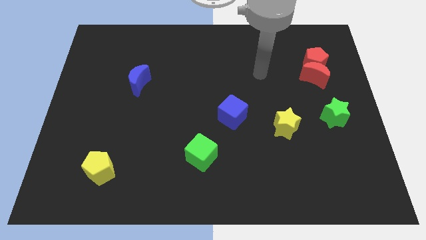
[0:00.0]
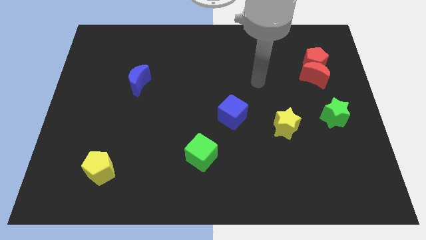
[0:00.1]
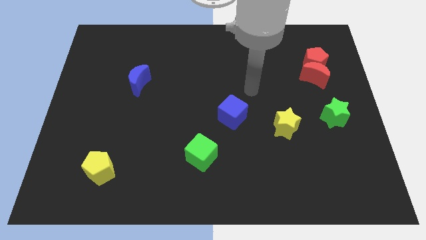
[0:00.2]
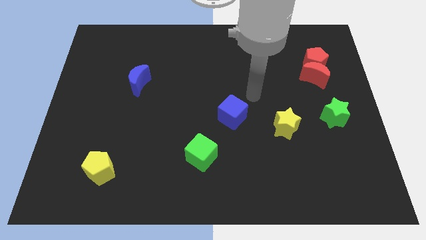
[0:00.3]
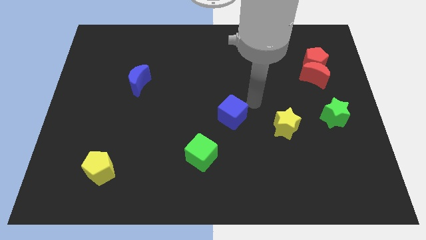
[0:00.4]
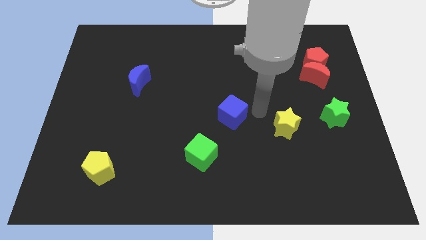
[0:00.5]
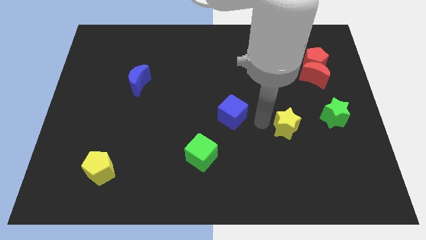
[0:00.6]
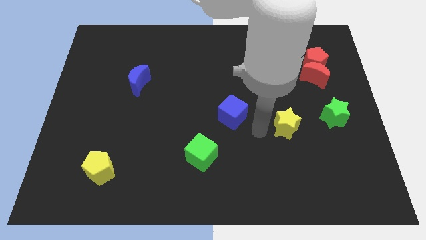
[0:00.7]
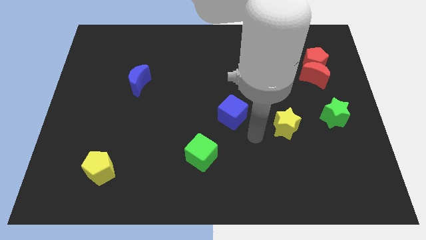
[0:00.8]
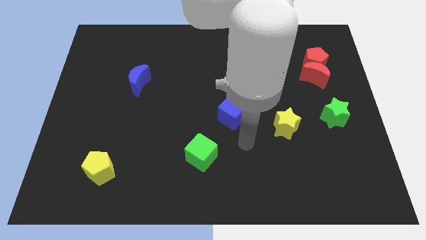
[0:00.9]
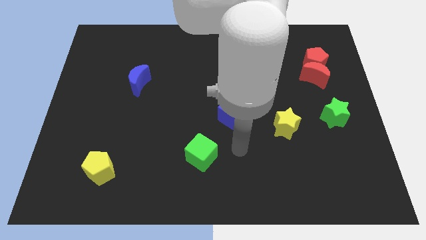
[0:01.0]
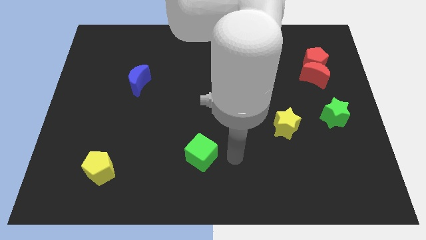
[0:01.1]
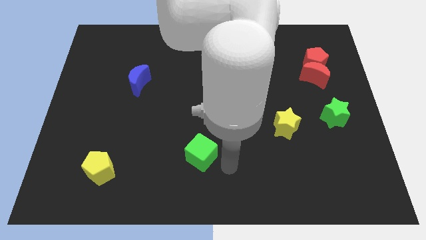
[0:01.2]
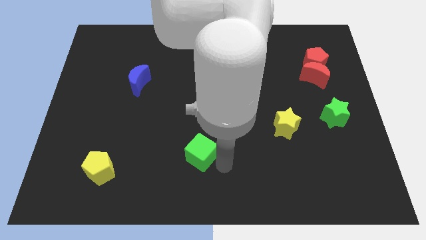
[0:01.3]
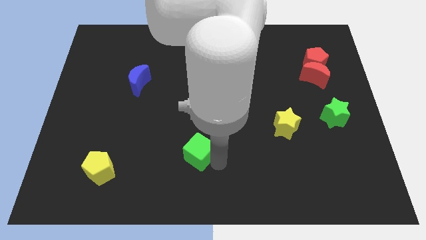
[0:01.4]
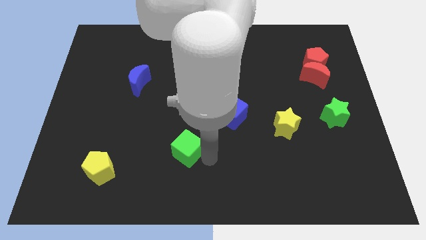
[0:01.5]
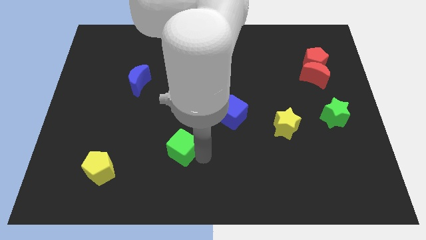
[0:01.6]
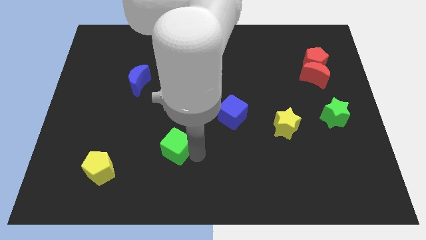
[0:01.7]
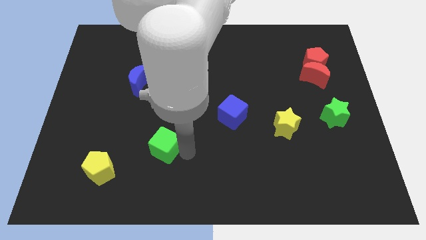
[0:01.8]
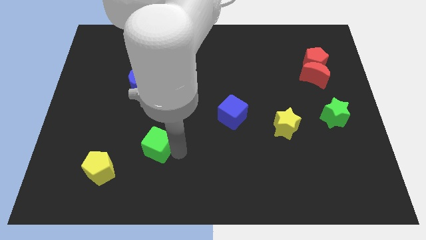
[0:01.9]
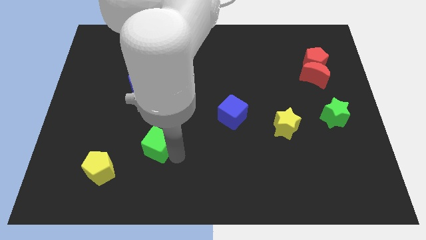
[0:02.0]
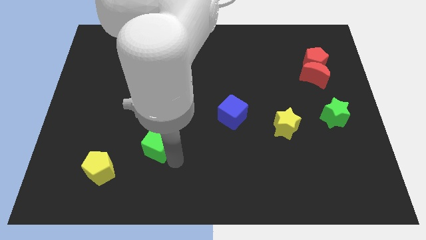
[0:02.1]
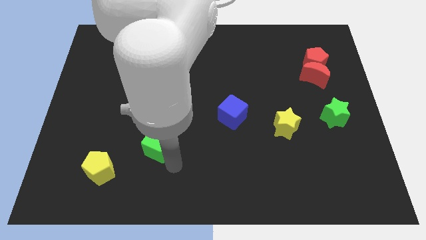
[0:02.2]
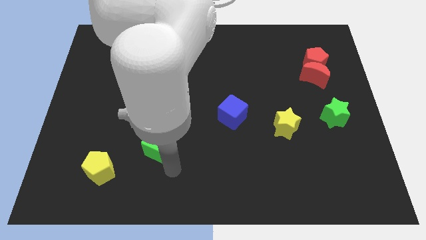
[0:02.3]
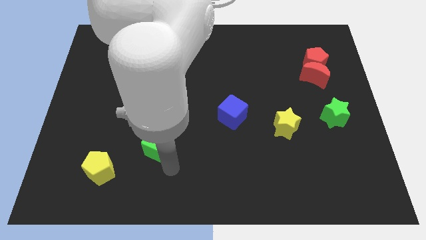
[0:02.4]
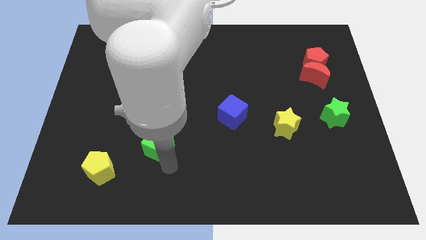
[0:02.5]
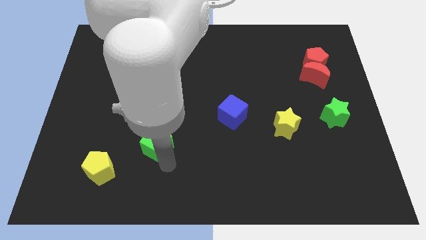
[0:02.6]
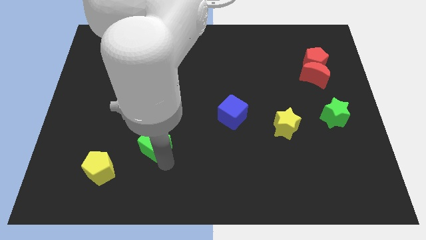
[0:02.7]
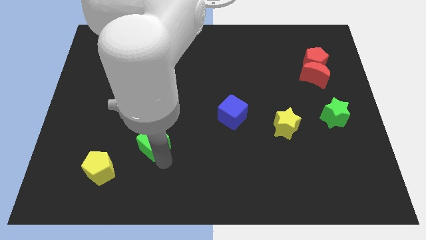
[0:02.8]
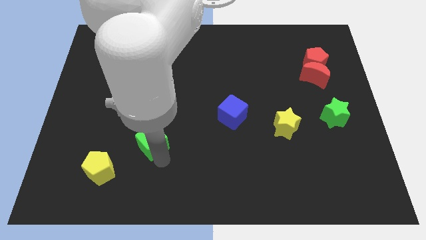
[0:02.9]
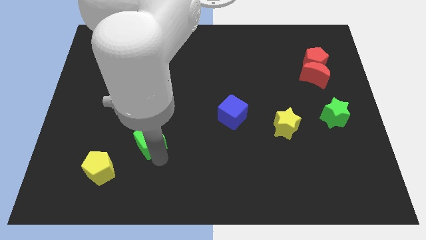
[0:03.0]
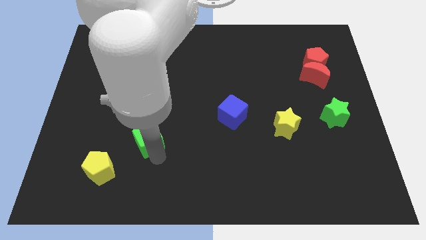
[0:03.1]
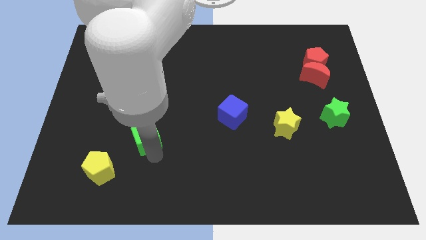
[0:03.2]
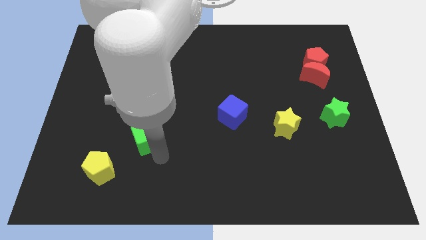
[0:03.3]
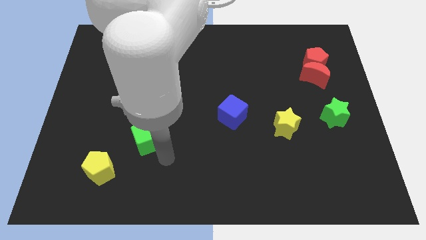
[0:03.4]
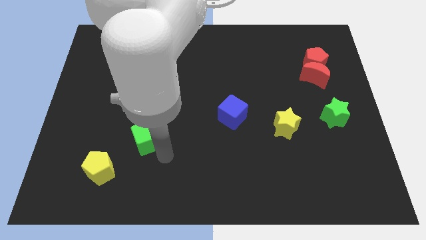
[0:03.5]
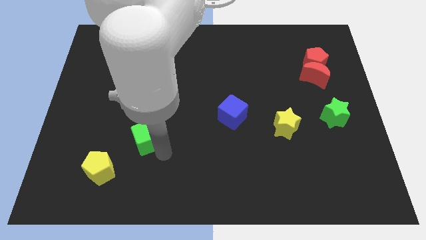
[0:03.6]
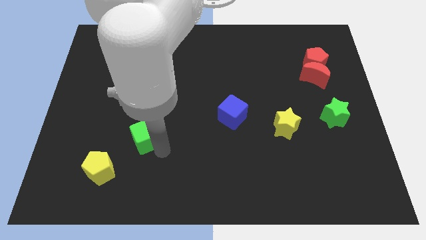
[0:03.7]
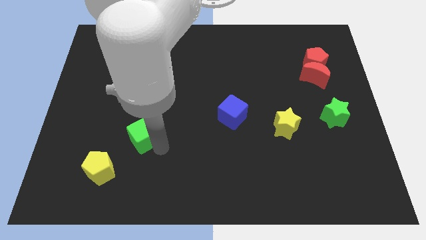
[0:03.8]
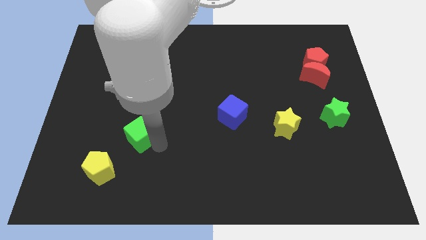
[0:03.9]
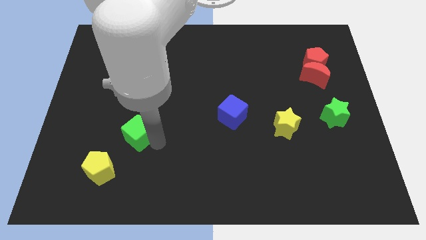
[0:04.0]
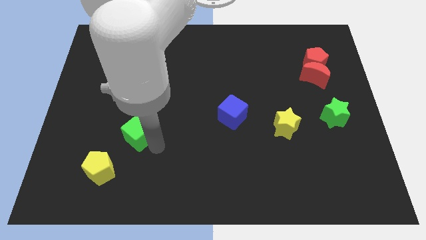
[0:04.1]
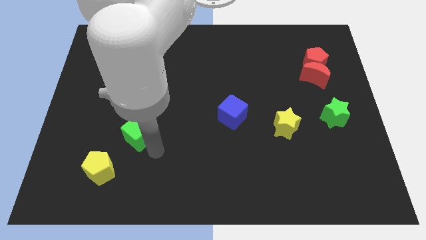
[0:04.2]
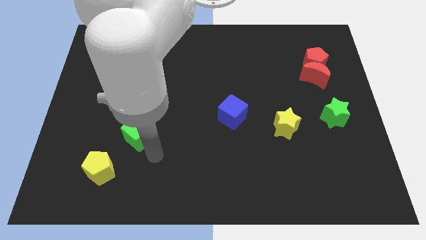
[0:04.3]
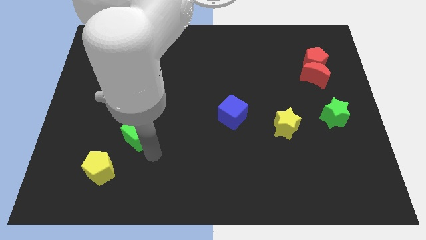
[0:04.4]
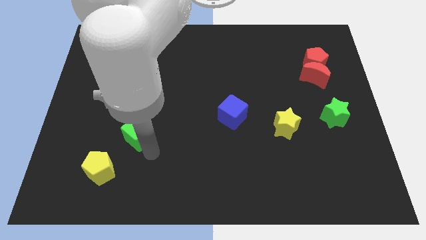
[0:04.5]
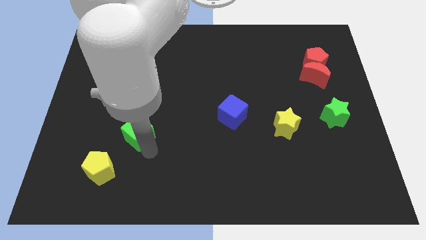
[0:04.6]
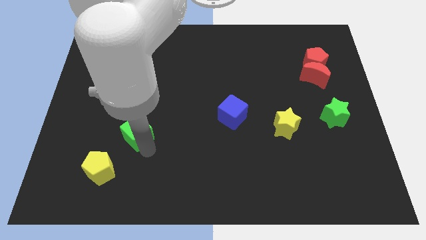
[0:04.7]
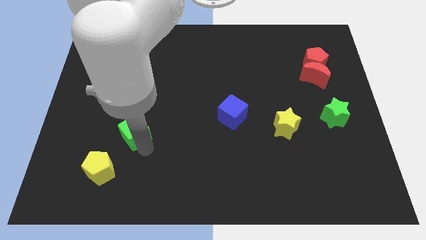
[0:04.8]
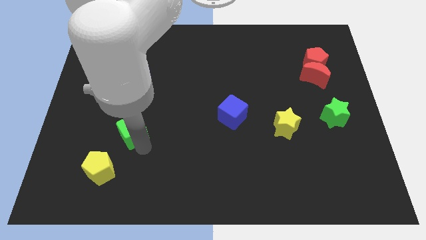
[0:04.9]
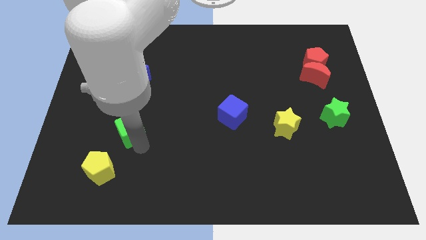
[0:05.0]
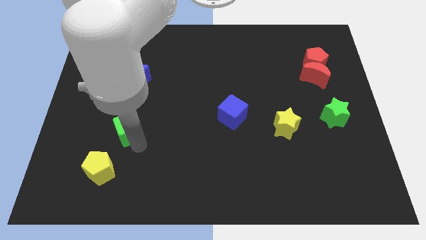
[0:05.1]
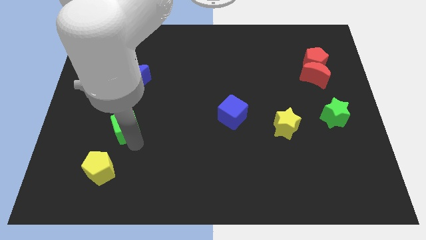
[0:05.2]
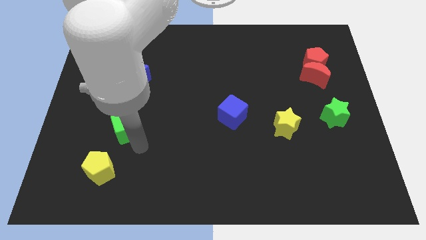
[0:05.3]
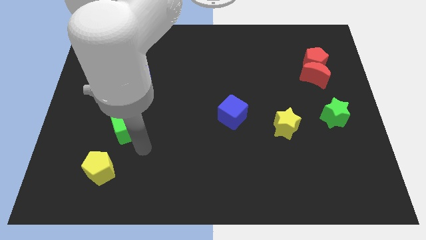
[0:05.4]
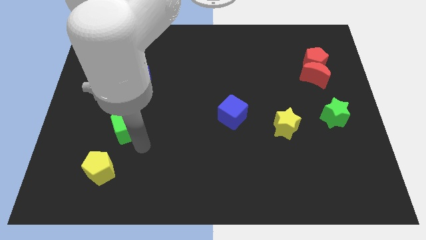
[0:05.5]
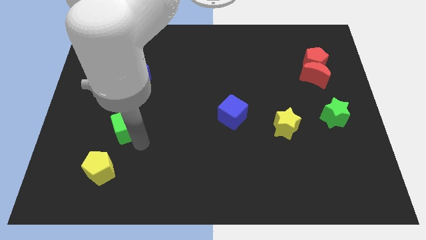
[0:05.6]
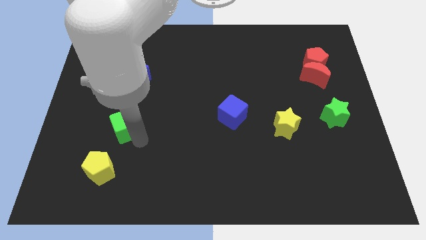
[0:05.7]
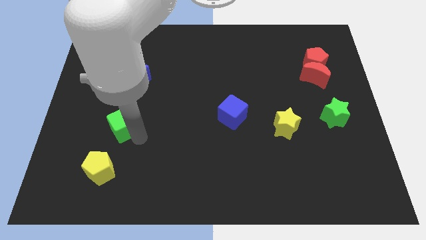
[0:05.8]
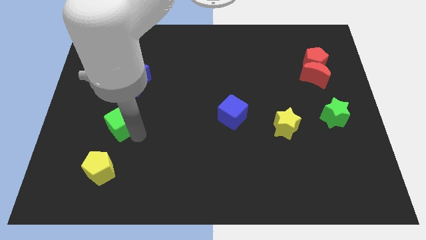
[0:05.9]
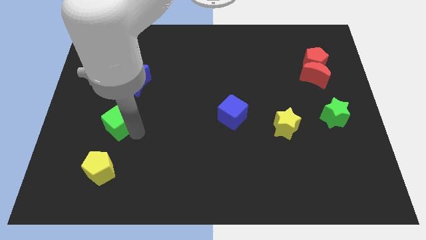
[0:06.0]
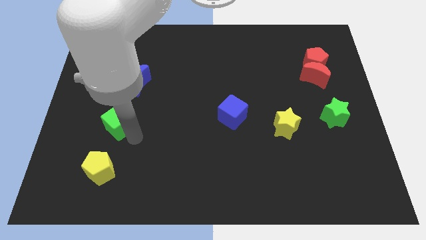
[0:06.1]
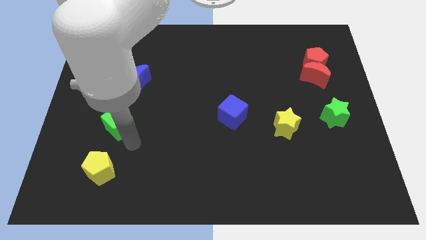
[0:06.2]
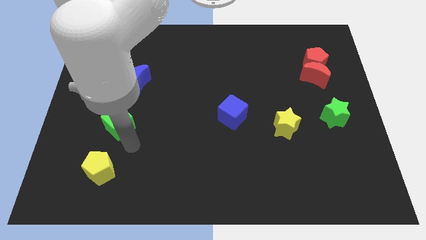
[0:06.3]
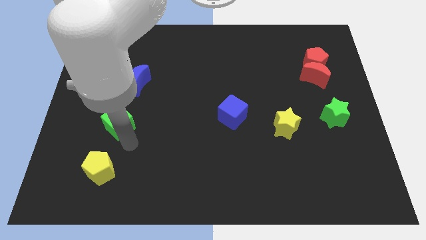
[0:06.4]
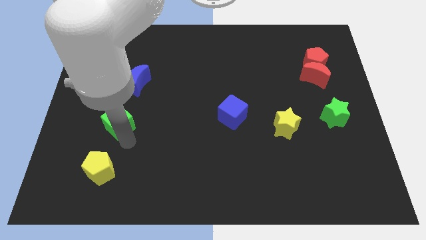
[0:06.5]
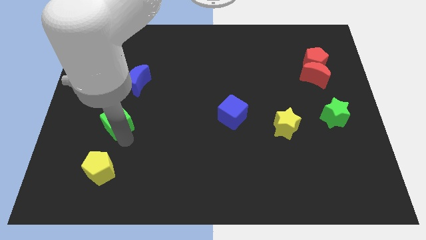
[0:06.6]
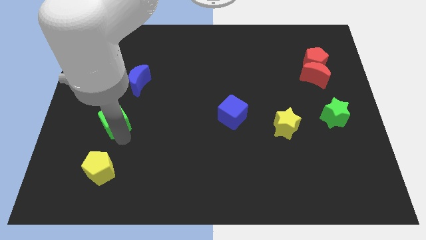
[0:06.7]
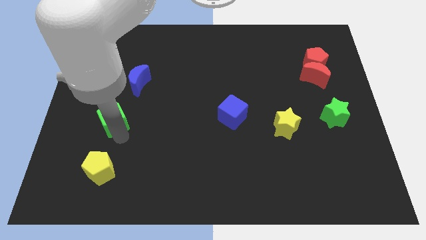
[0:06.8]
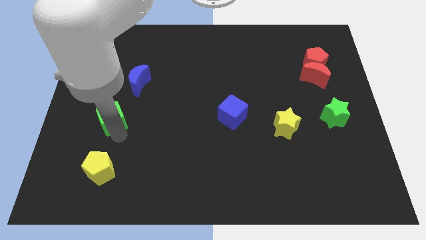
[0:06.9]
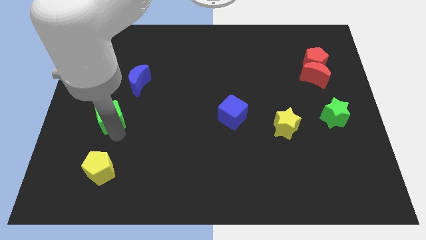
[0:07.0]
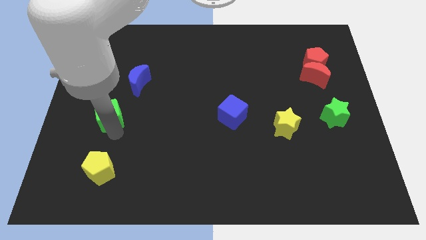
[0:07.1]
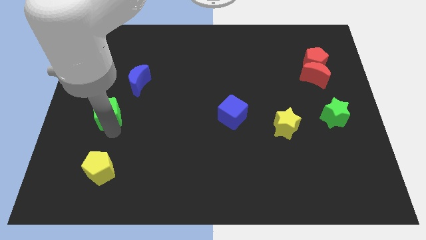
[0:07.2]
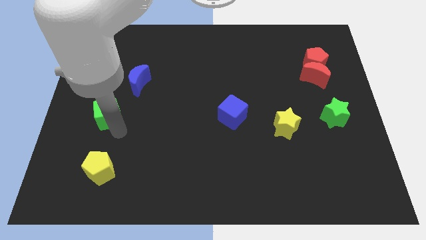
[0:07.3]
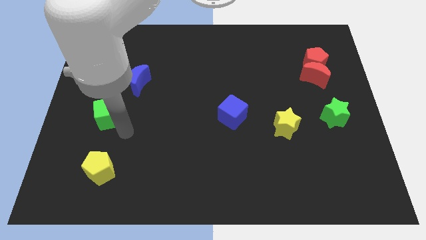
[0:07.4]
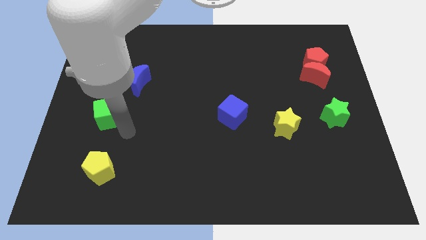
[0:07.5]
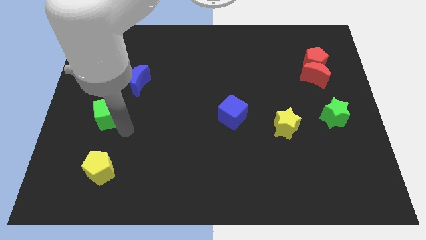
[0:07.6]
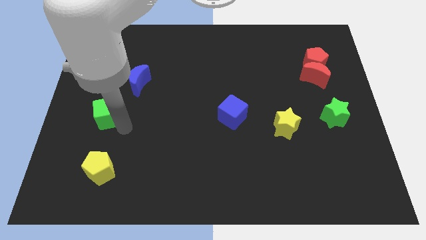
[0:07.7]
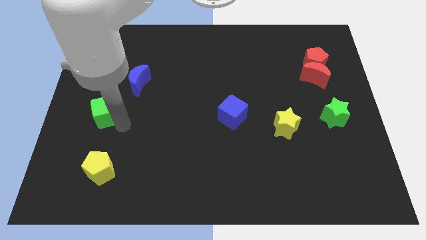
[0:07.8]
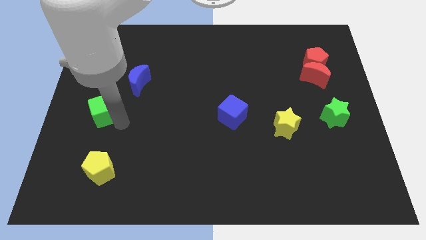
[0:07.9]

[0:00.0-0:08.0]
put the green cube to the left side
